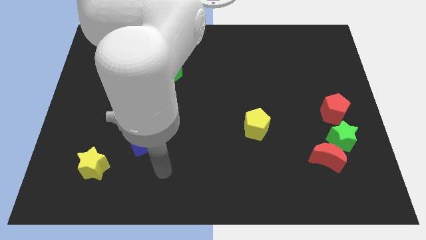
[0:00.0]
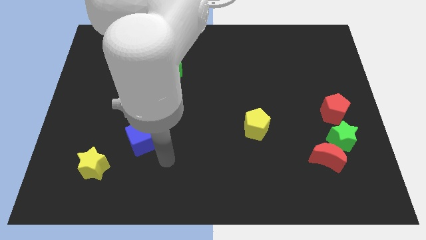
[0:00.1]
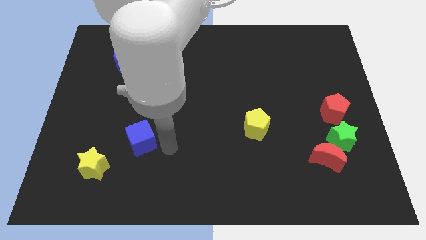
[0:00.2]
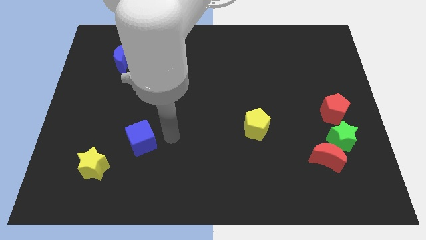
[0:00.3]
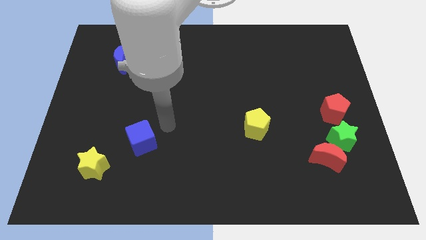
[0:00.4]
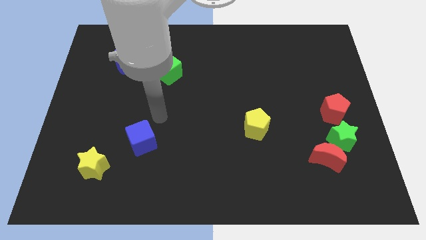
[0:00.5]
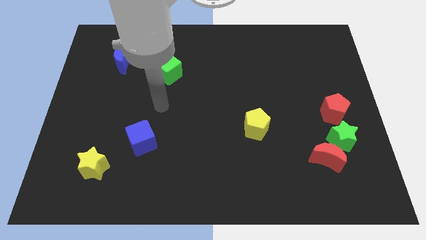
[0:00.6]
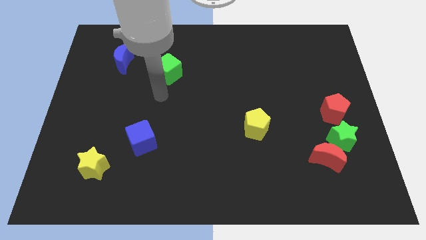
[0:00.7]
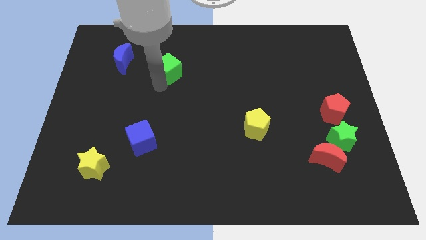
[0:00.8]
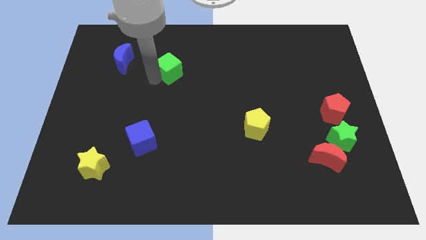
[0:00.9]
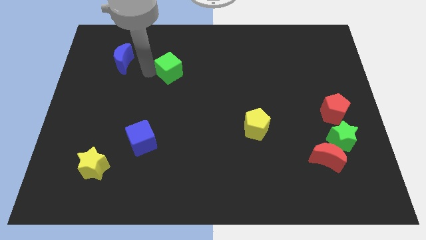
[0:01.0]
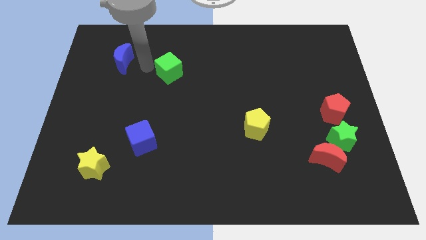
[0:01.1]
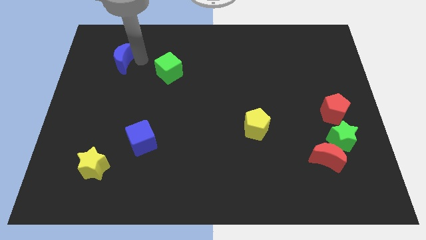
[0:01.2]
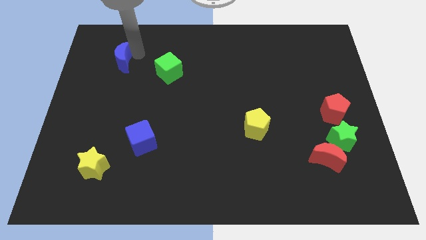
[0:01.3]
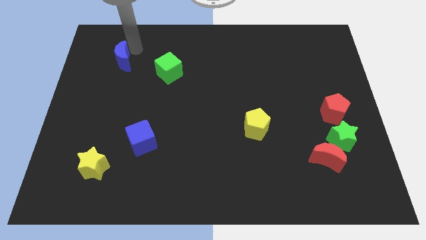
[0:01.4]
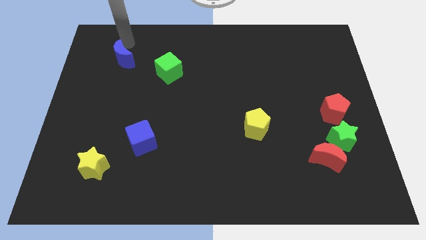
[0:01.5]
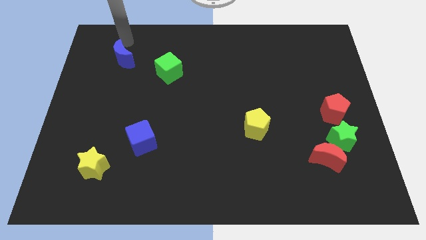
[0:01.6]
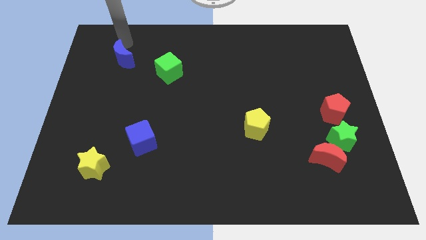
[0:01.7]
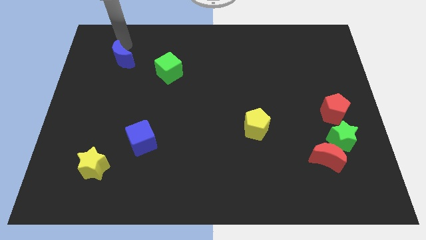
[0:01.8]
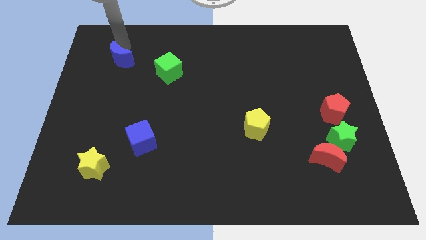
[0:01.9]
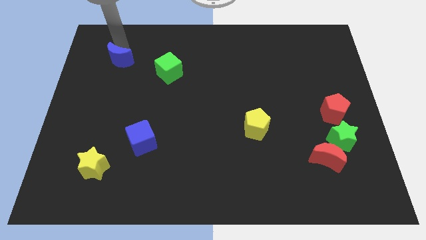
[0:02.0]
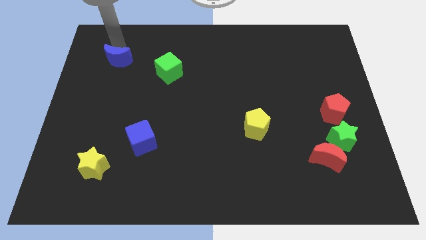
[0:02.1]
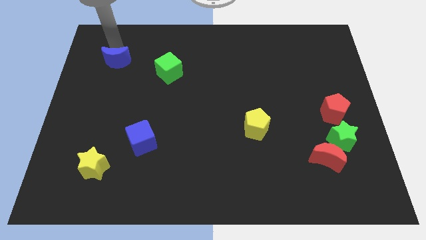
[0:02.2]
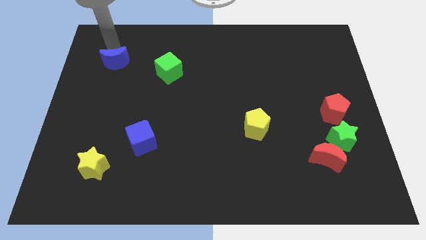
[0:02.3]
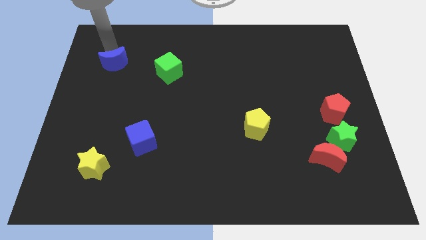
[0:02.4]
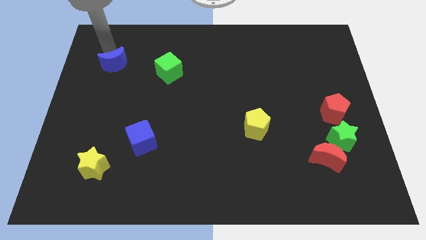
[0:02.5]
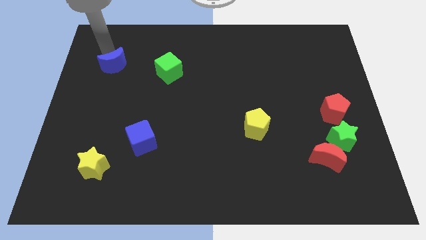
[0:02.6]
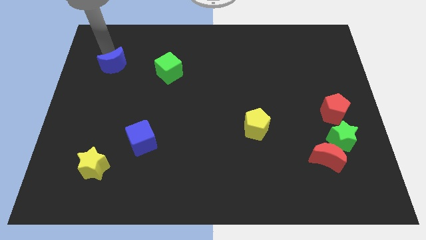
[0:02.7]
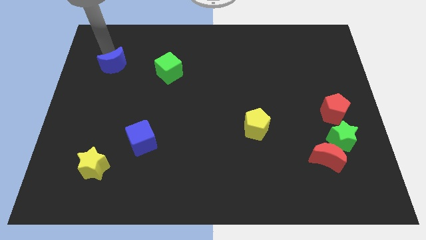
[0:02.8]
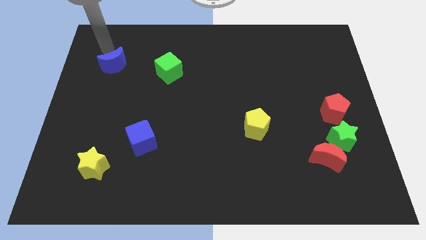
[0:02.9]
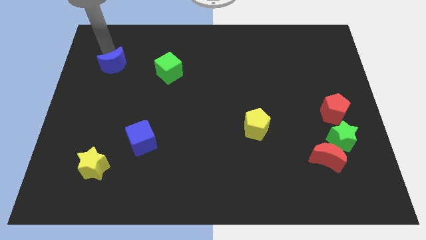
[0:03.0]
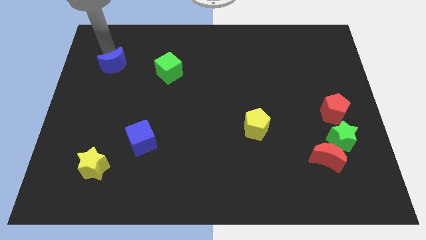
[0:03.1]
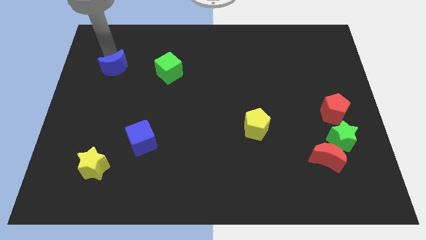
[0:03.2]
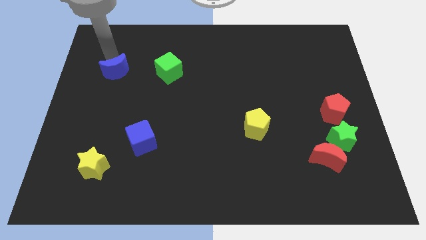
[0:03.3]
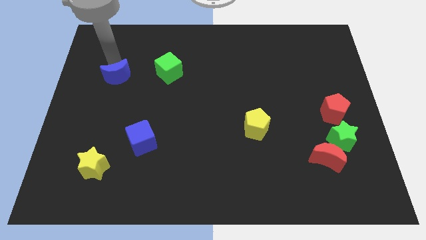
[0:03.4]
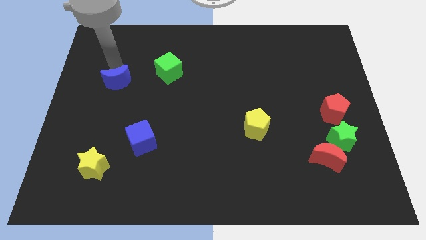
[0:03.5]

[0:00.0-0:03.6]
slide the blue moon downwards slightly

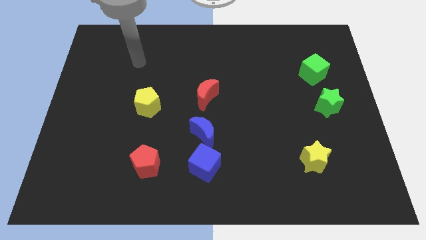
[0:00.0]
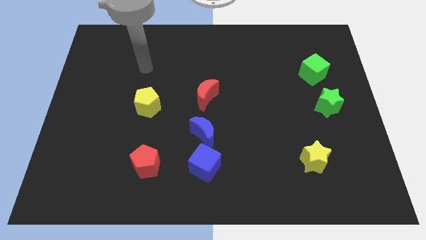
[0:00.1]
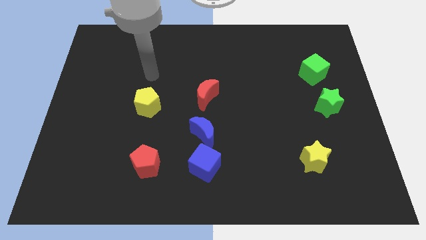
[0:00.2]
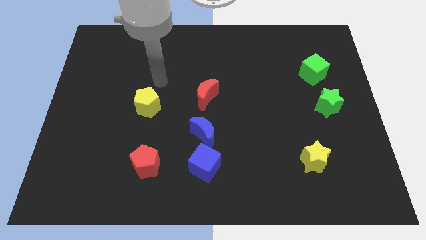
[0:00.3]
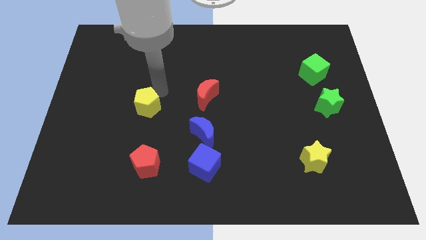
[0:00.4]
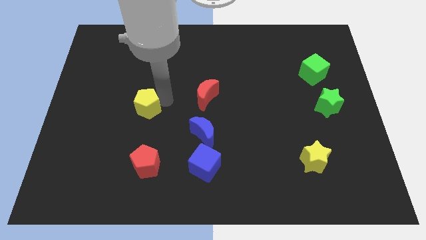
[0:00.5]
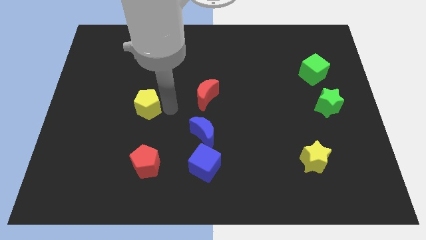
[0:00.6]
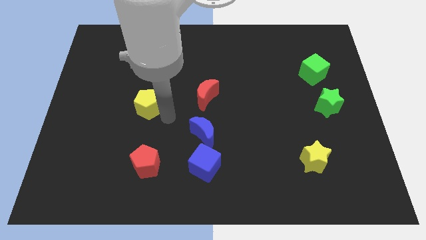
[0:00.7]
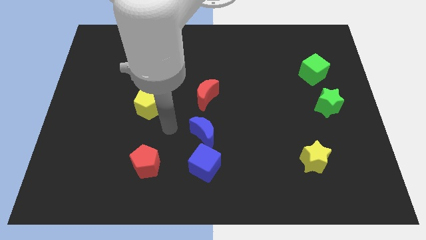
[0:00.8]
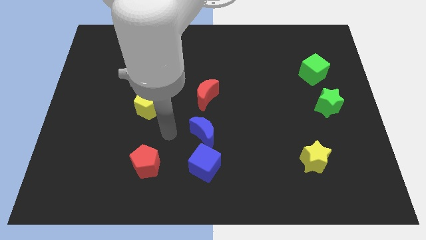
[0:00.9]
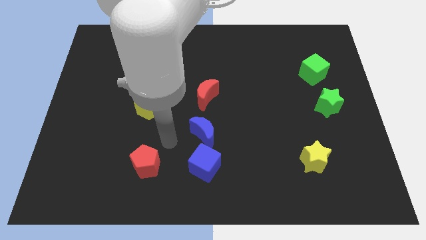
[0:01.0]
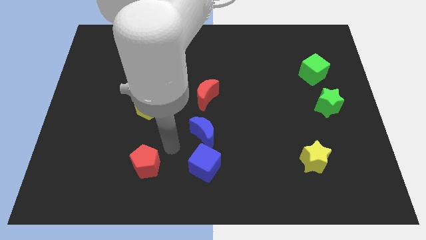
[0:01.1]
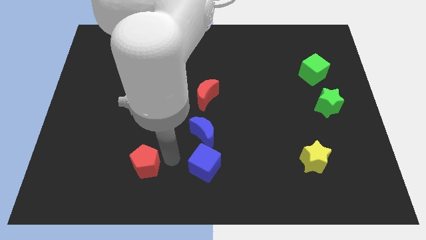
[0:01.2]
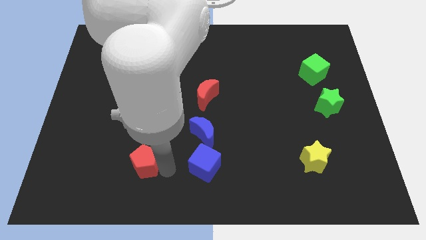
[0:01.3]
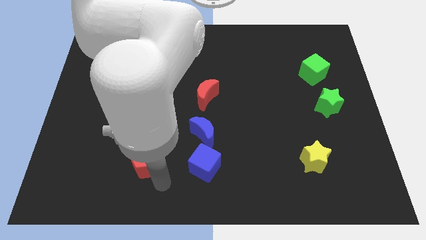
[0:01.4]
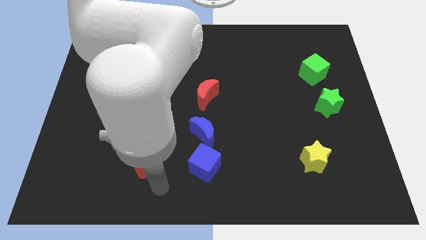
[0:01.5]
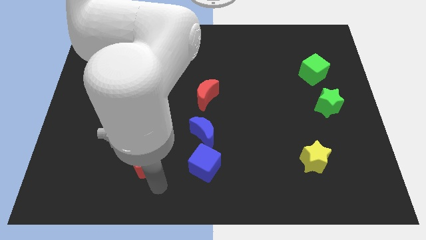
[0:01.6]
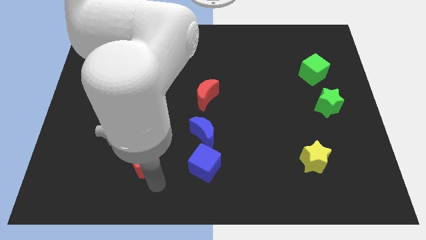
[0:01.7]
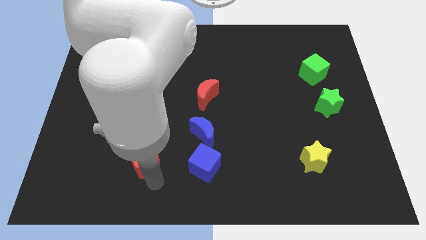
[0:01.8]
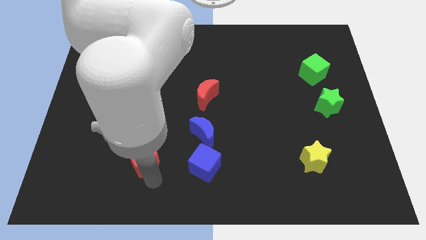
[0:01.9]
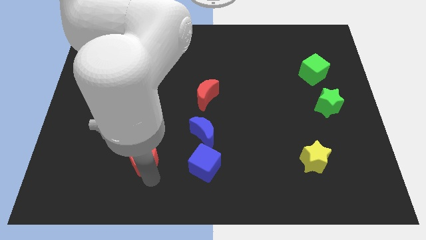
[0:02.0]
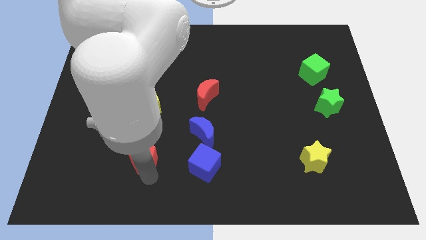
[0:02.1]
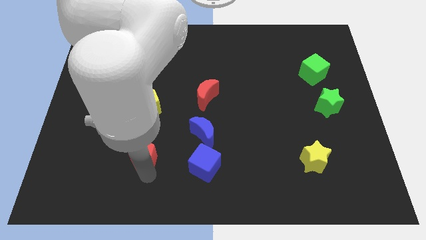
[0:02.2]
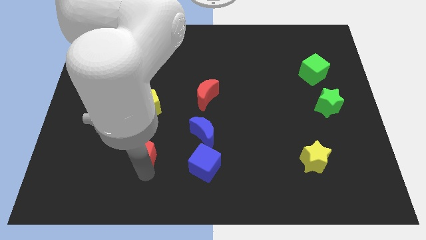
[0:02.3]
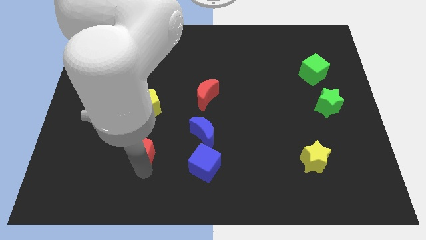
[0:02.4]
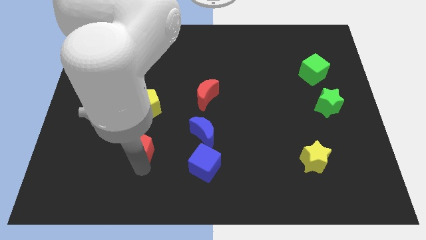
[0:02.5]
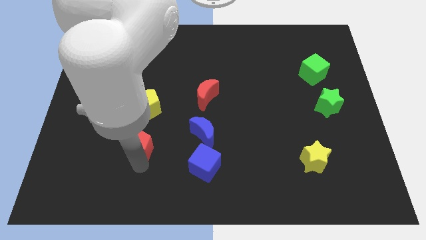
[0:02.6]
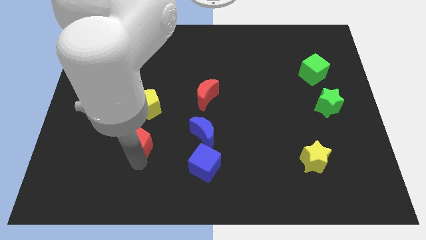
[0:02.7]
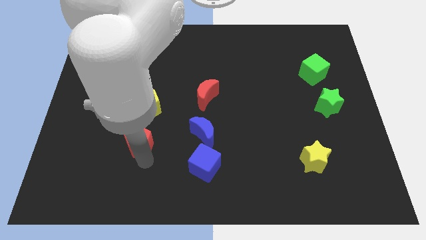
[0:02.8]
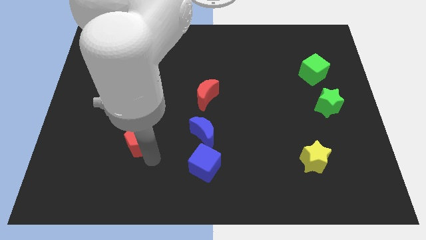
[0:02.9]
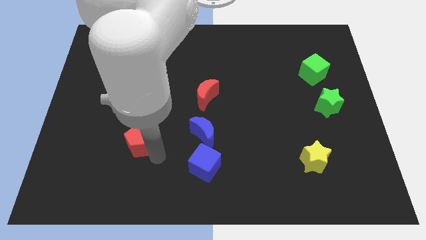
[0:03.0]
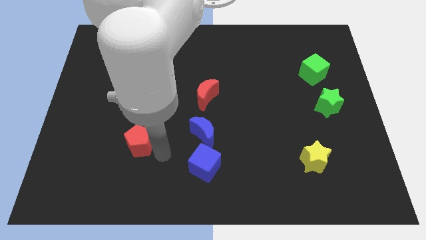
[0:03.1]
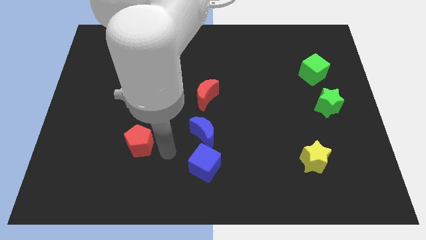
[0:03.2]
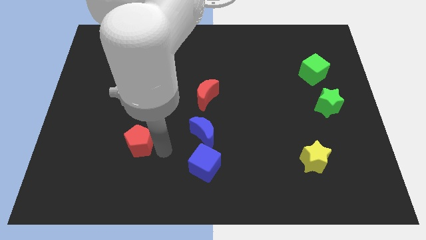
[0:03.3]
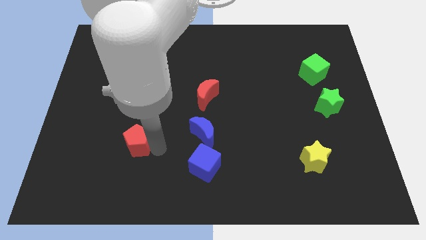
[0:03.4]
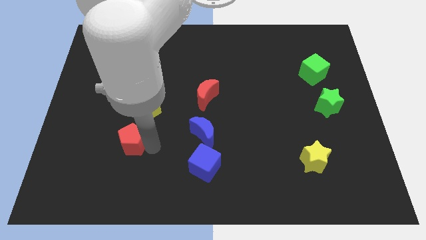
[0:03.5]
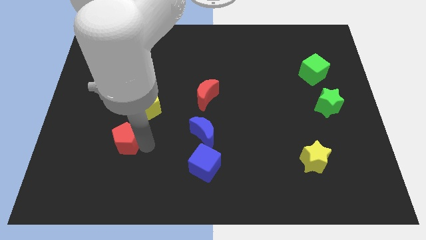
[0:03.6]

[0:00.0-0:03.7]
slide the red pentagon somewhat up and then to the left

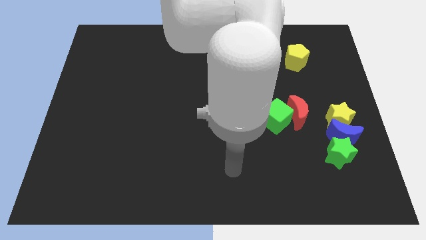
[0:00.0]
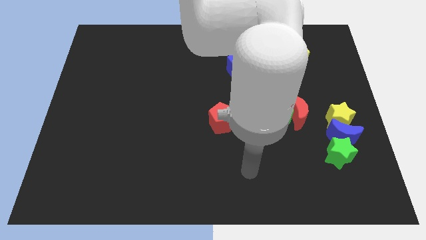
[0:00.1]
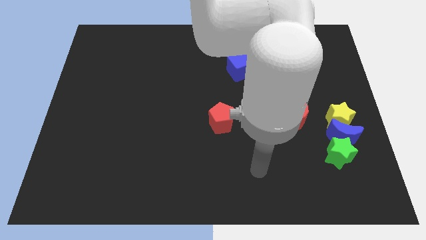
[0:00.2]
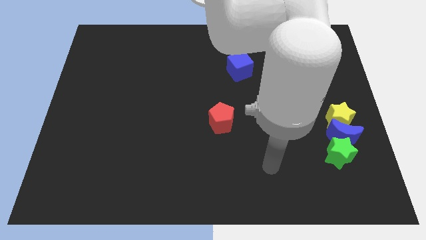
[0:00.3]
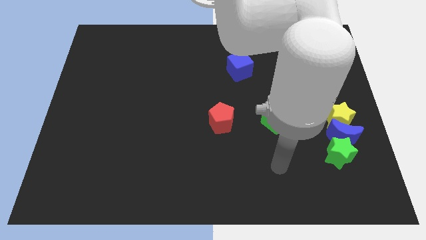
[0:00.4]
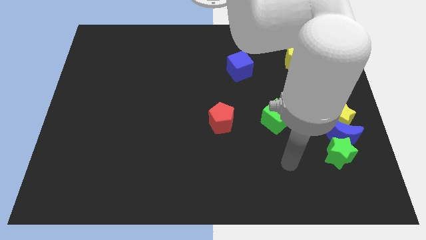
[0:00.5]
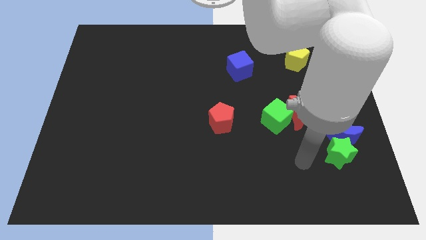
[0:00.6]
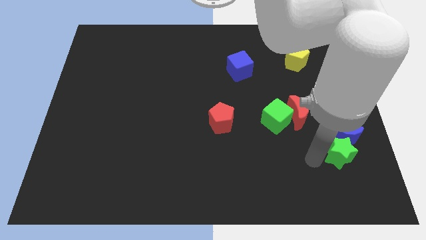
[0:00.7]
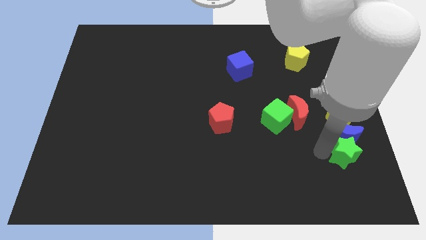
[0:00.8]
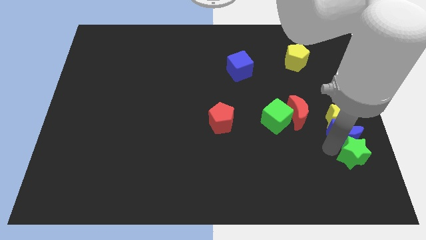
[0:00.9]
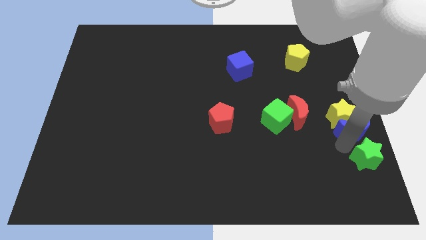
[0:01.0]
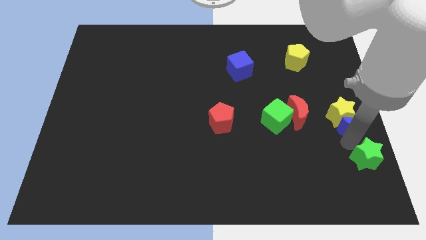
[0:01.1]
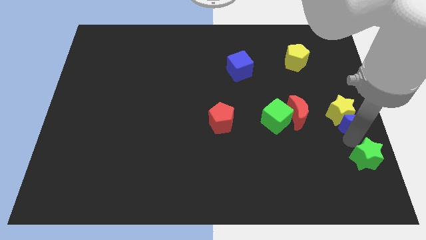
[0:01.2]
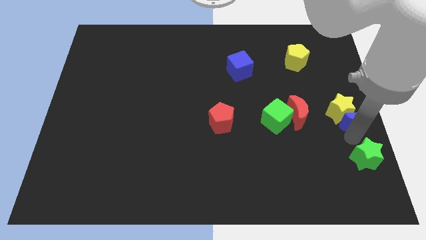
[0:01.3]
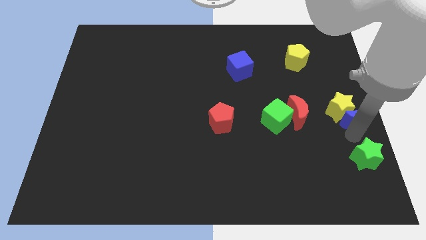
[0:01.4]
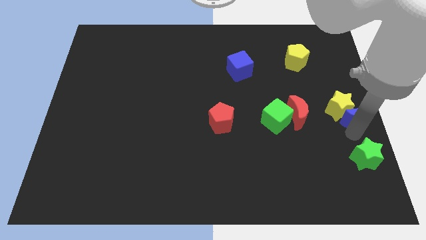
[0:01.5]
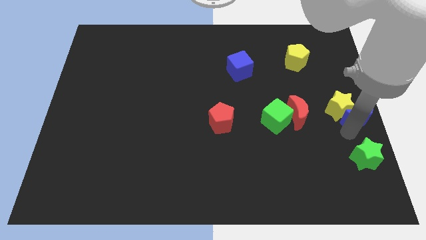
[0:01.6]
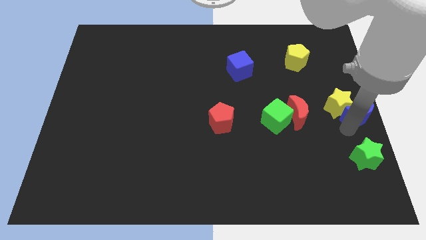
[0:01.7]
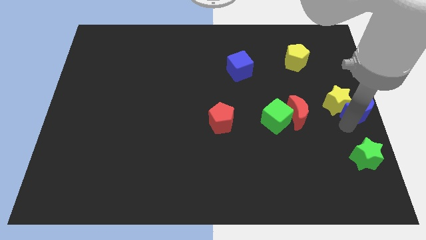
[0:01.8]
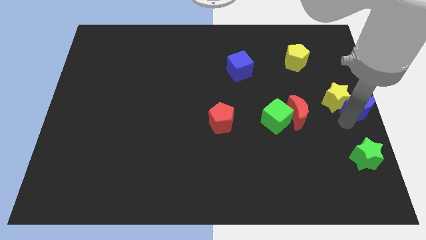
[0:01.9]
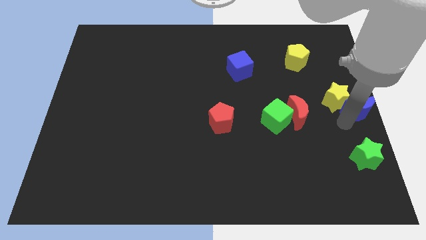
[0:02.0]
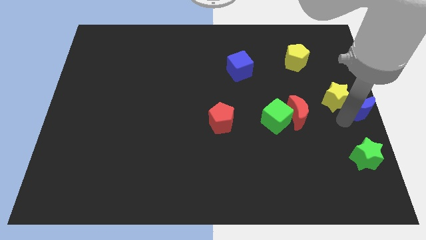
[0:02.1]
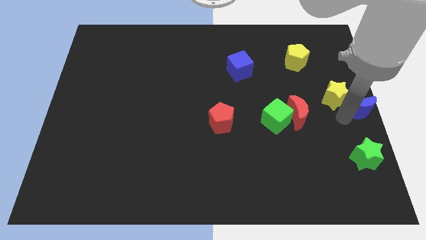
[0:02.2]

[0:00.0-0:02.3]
slightly push the yellow star upwards
